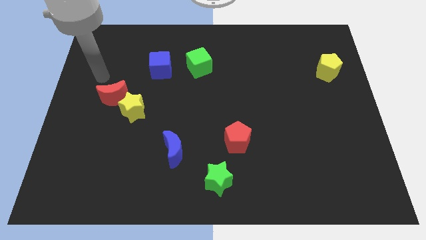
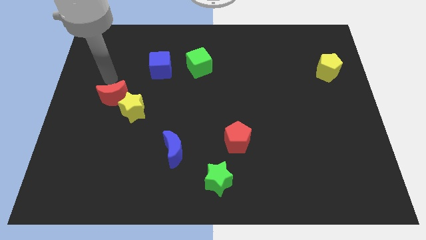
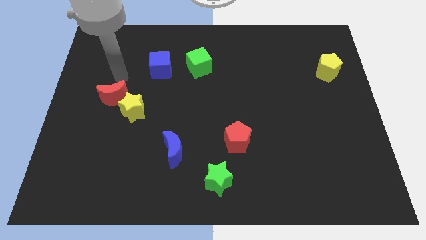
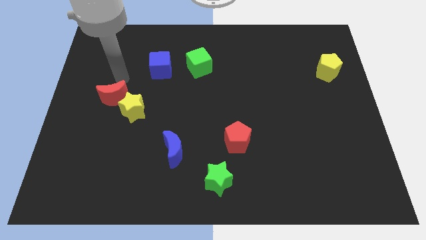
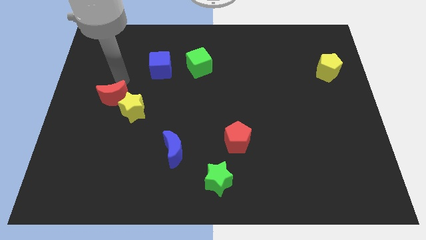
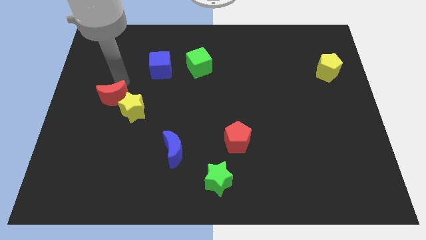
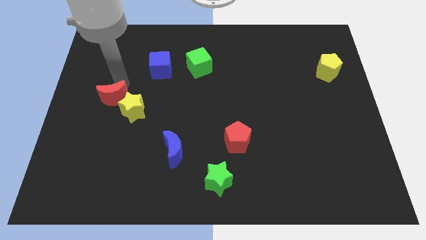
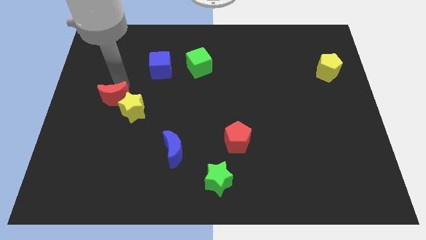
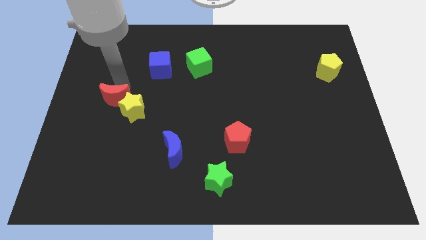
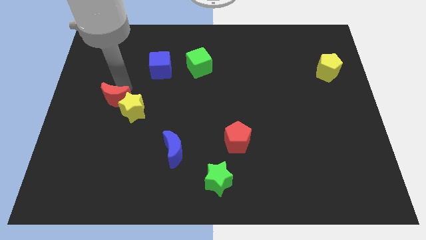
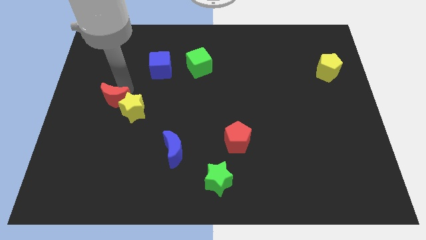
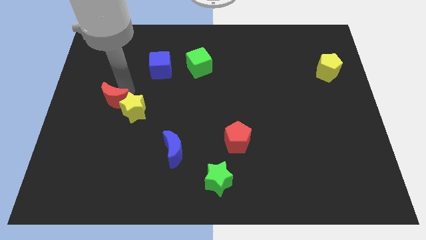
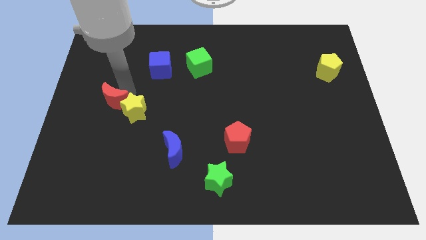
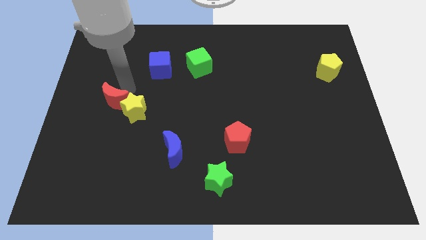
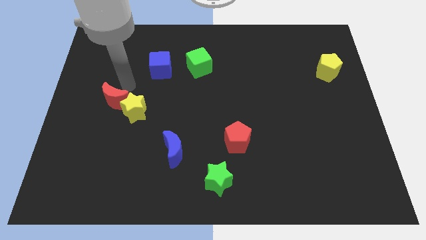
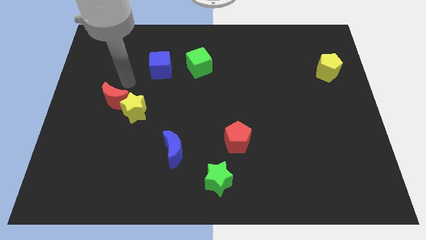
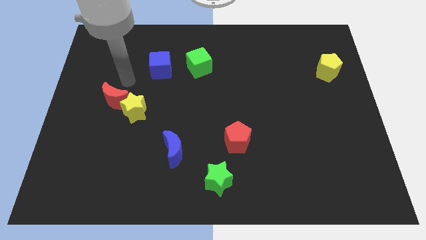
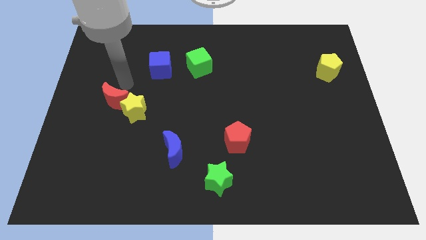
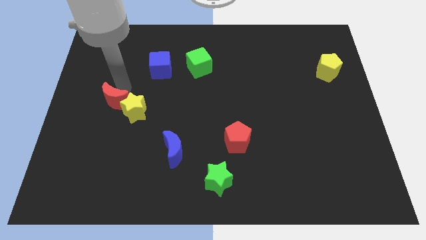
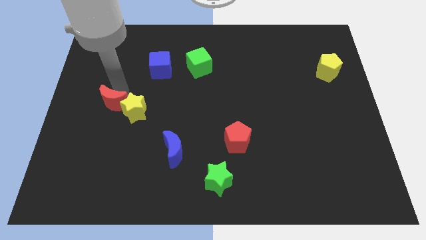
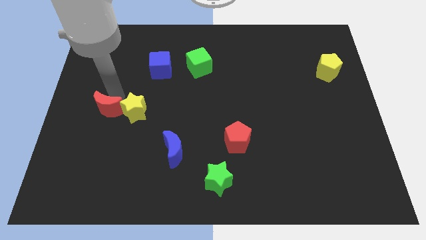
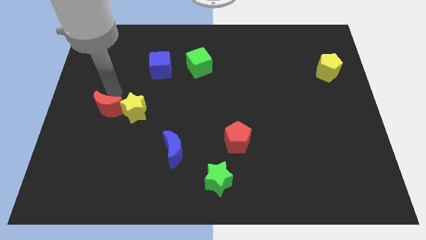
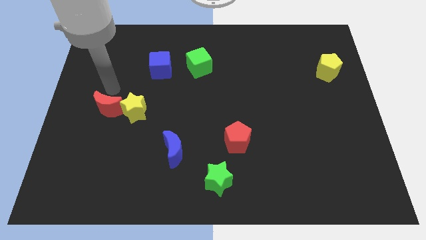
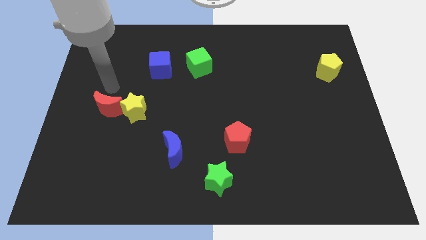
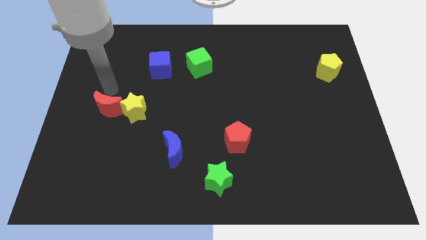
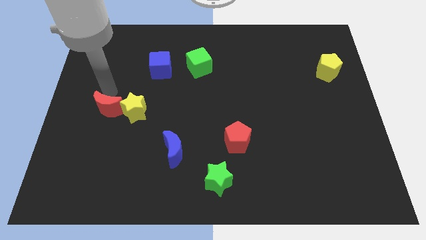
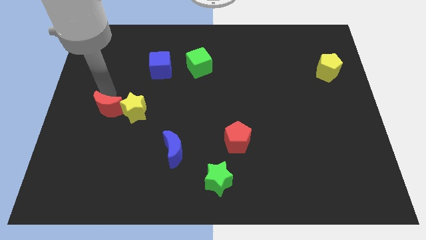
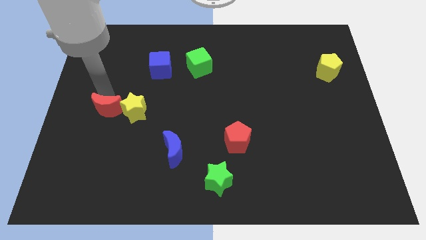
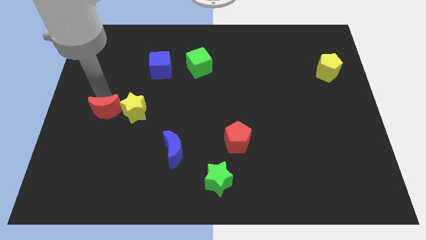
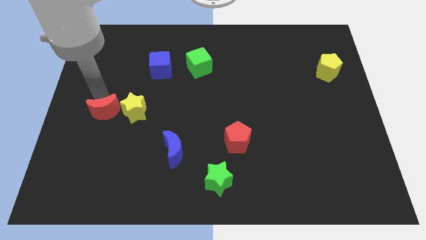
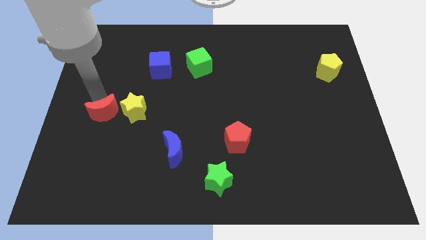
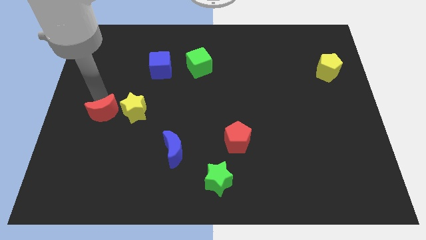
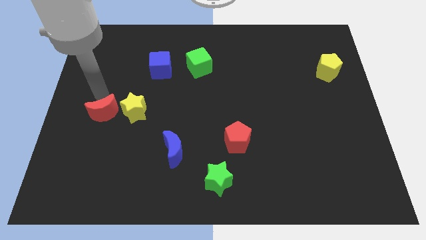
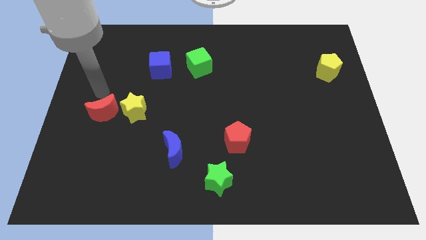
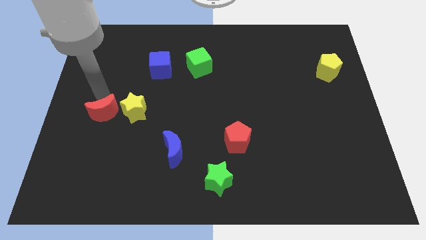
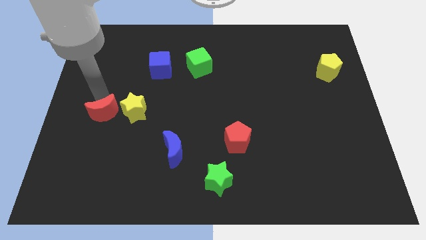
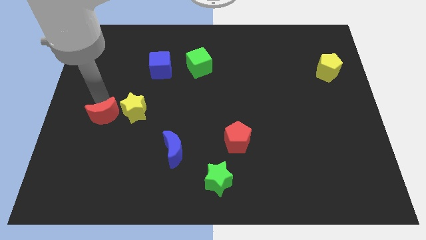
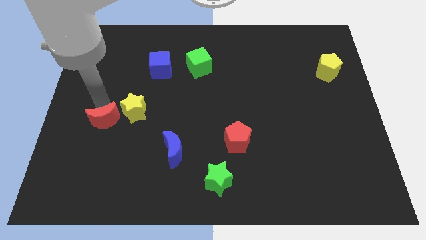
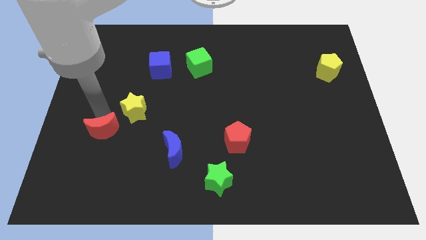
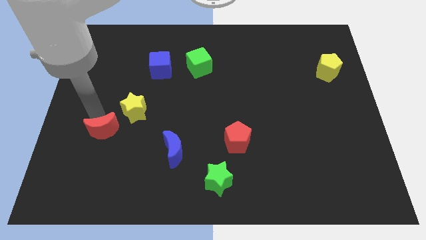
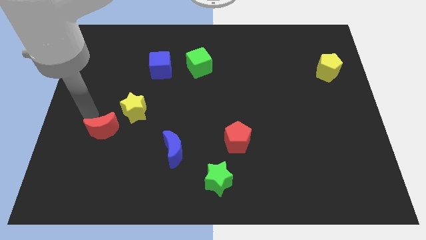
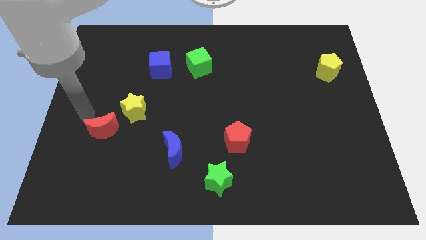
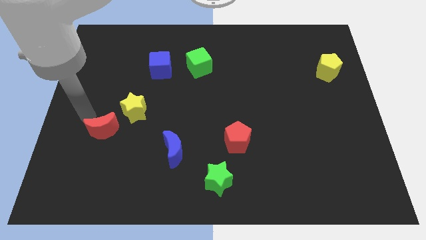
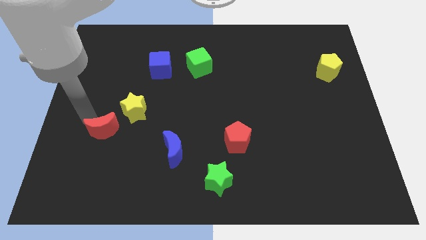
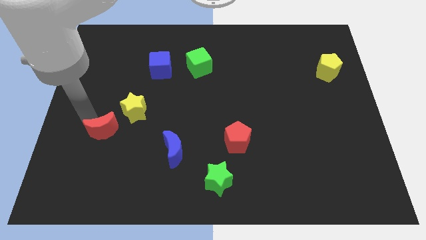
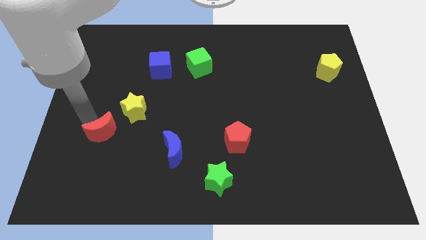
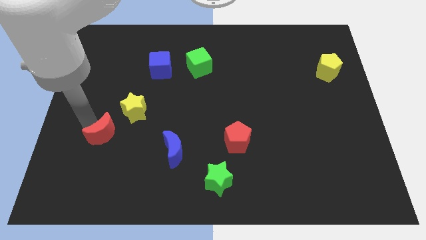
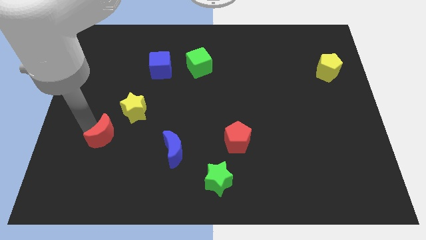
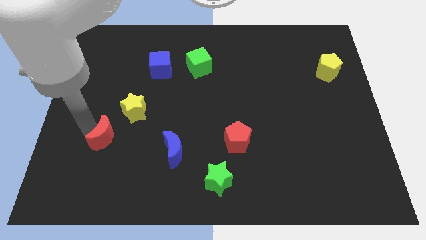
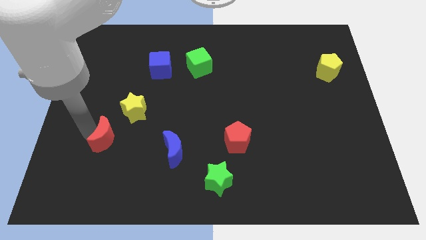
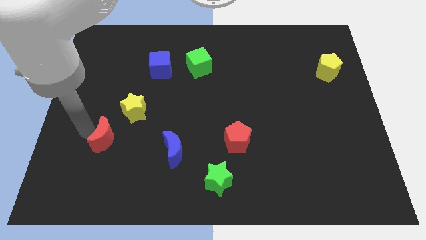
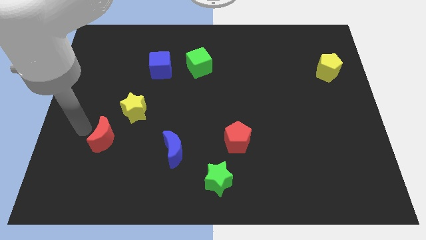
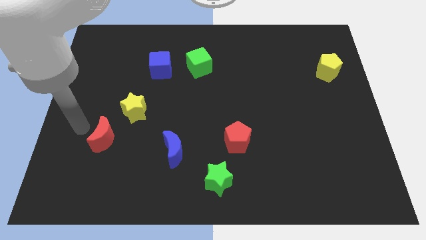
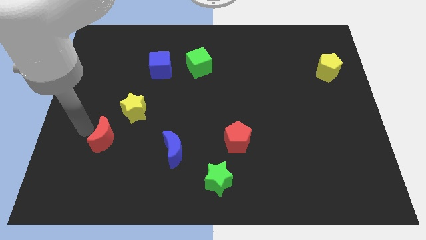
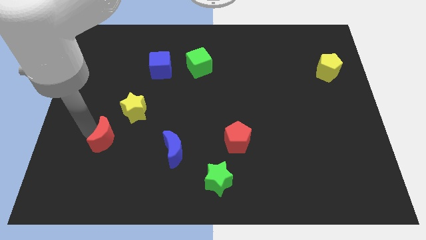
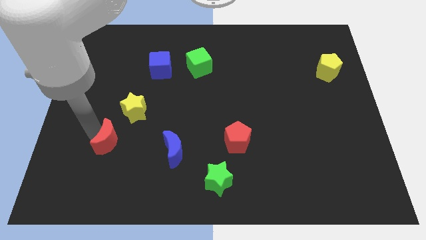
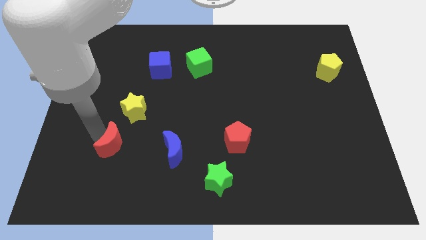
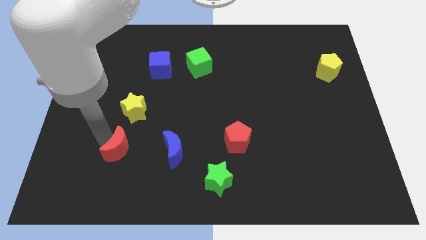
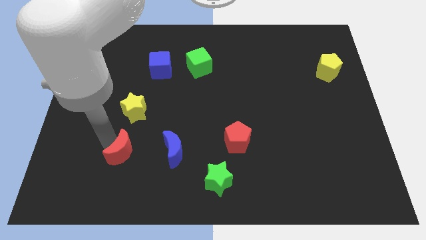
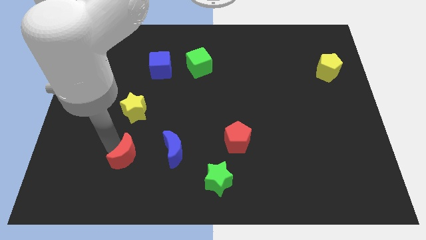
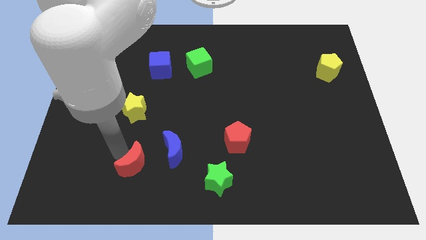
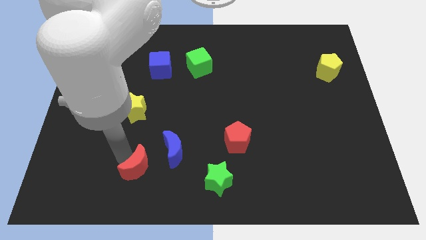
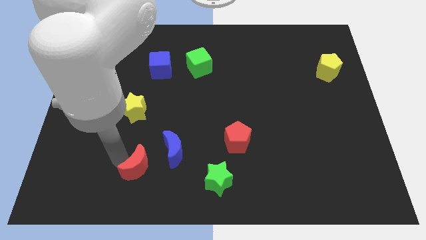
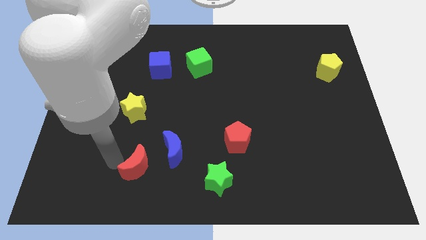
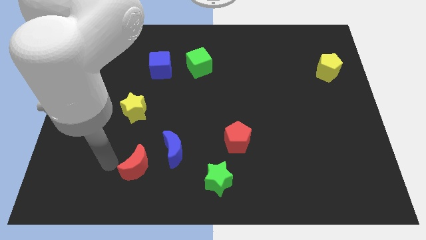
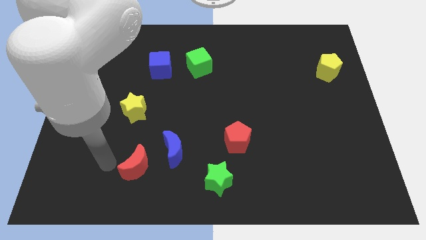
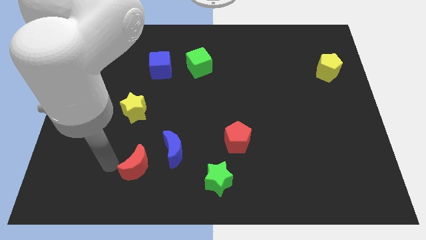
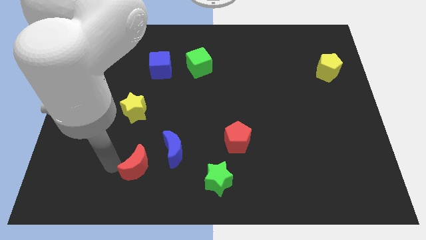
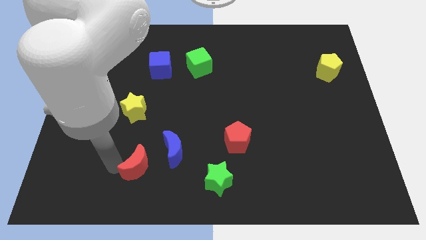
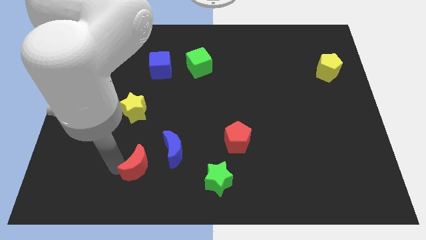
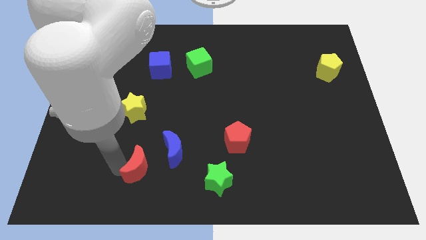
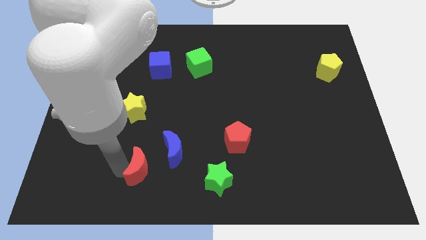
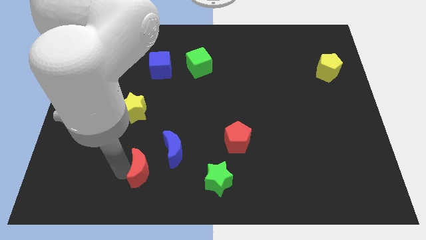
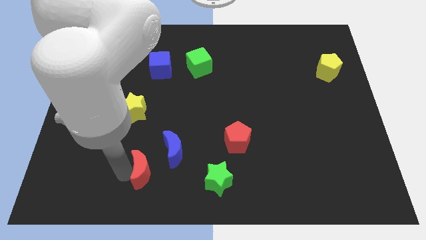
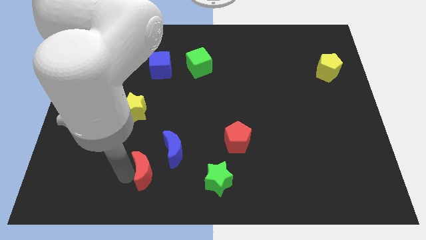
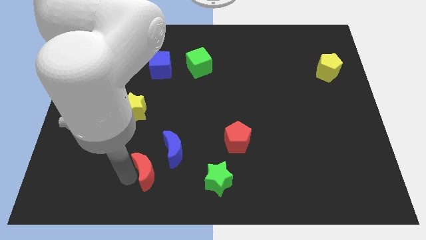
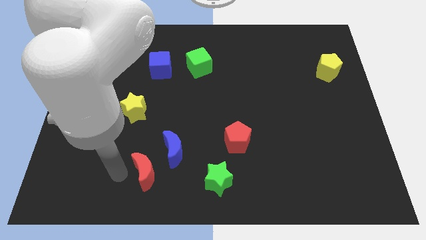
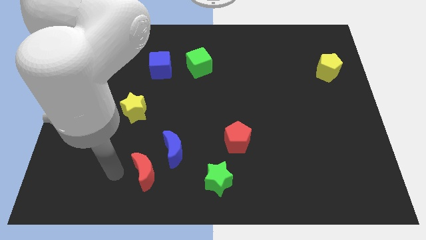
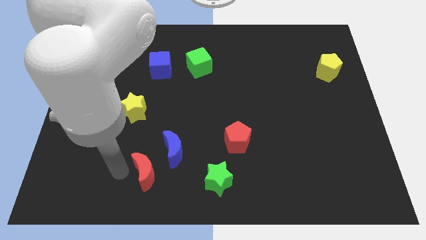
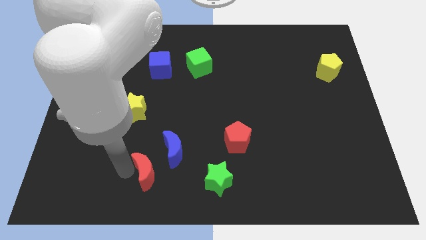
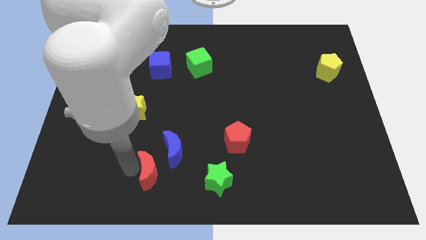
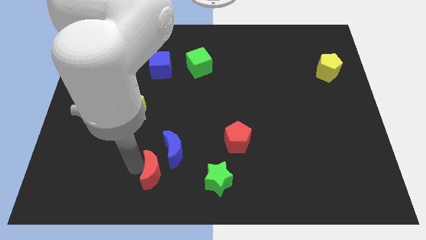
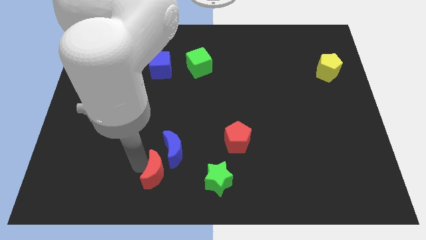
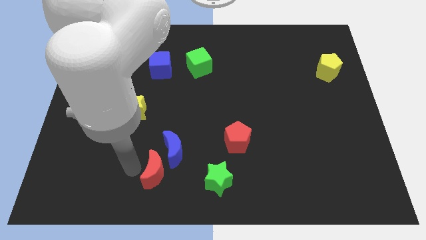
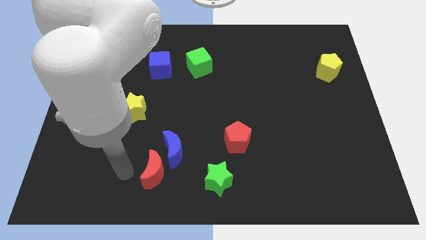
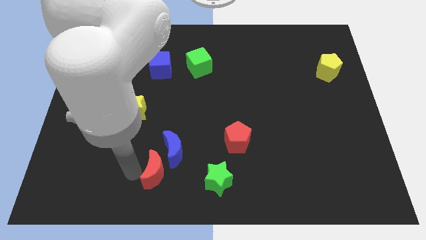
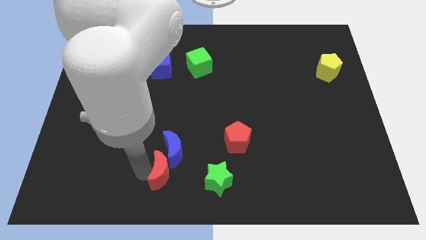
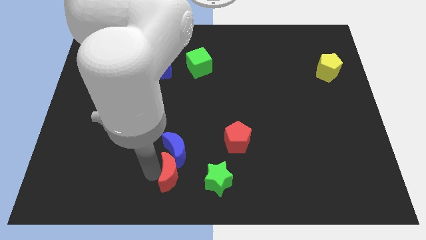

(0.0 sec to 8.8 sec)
push the red moon to the bottom right side of the blue moon
